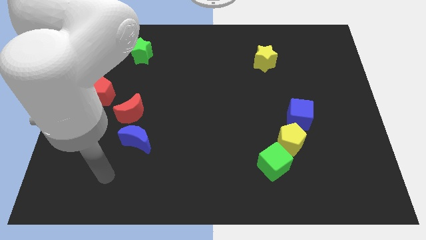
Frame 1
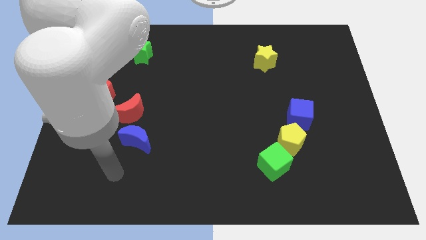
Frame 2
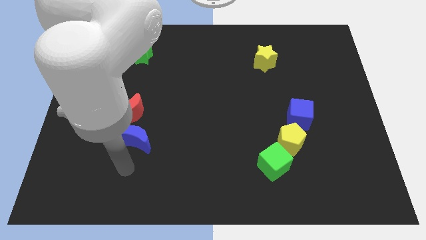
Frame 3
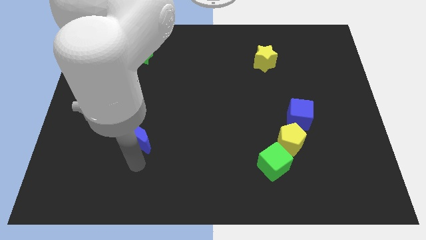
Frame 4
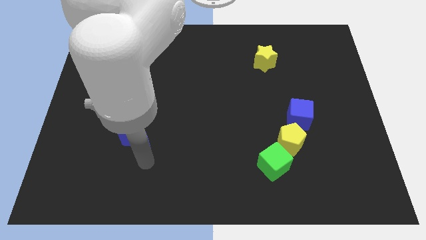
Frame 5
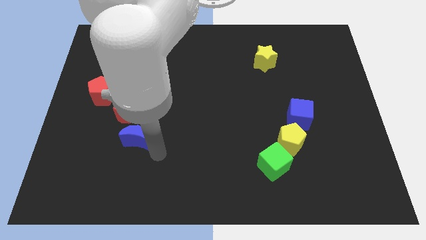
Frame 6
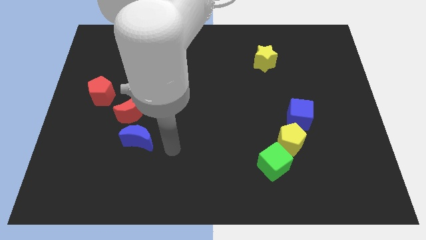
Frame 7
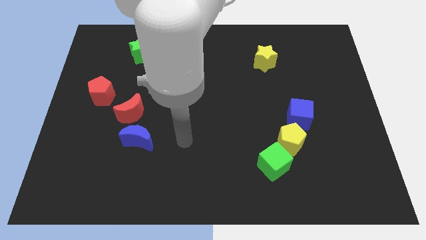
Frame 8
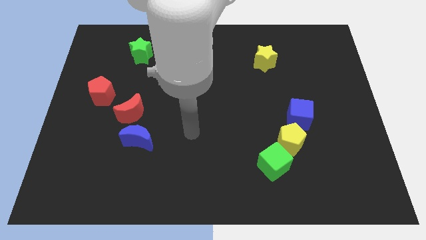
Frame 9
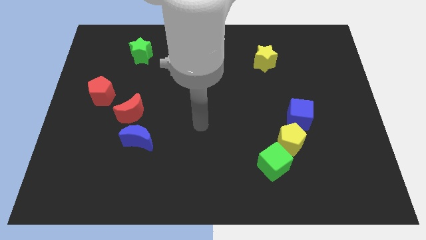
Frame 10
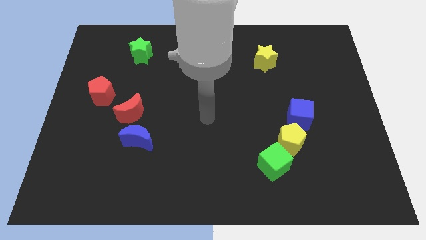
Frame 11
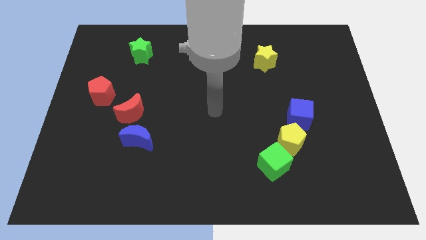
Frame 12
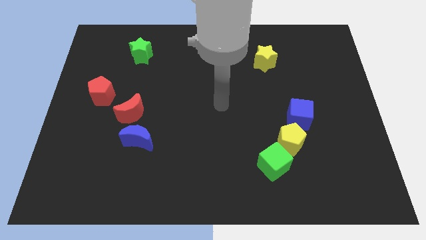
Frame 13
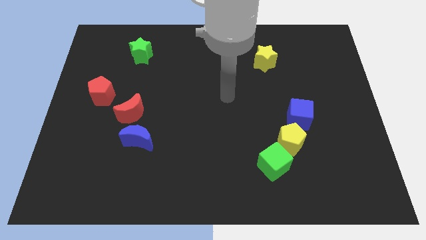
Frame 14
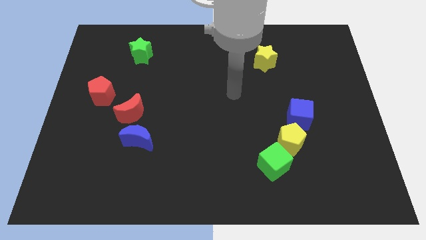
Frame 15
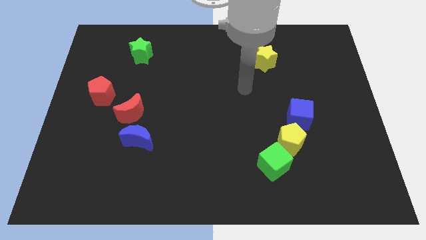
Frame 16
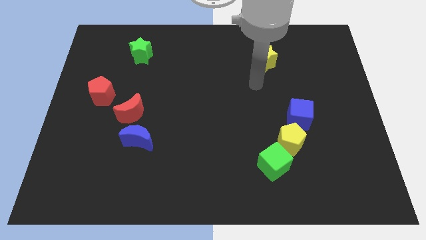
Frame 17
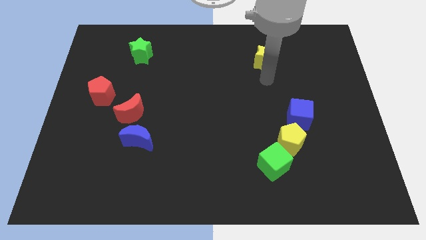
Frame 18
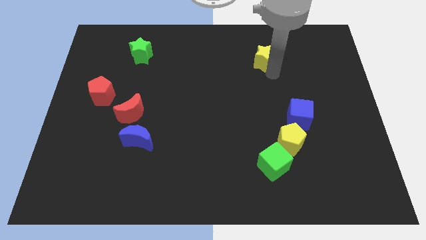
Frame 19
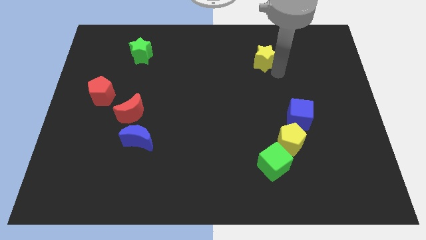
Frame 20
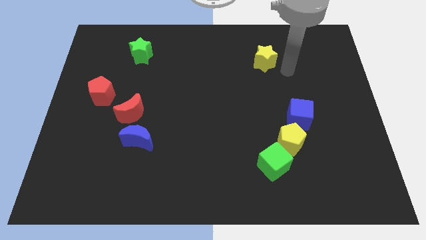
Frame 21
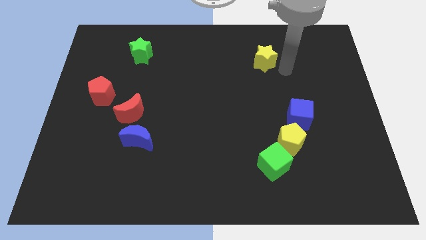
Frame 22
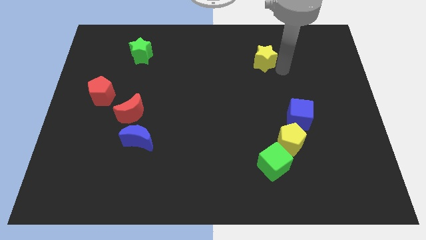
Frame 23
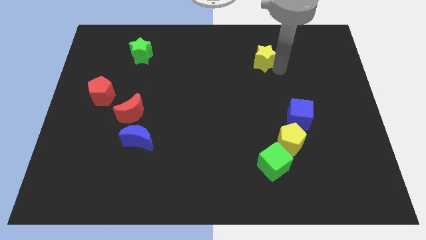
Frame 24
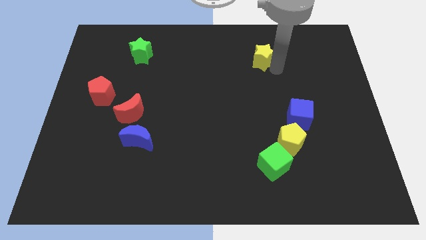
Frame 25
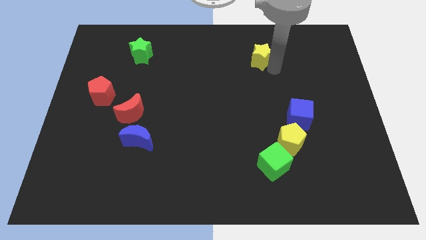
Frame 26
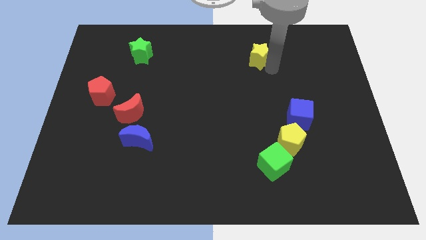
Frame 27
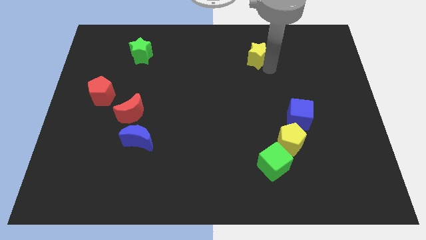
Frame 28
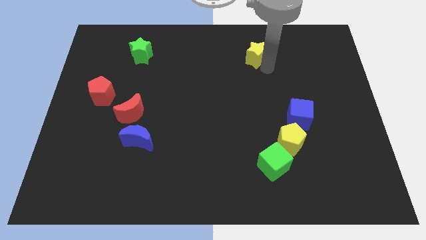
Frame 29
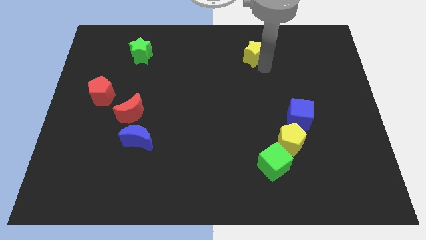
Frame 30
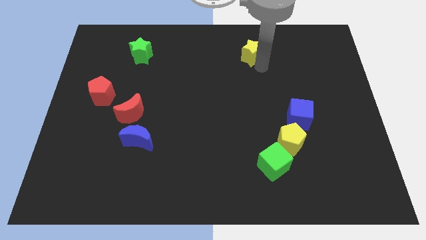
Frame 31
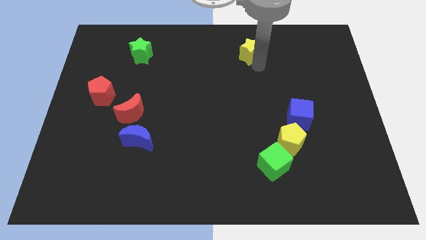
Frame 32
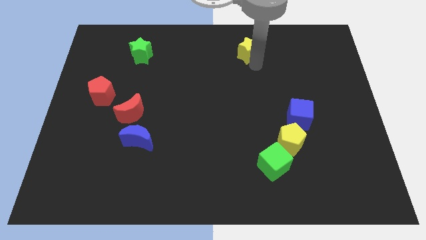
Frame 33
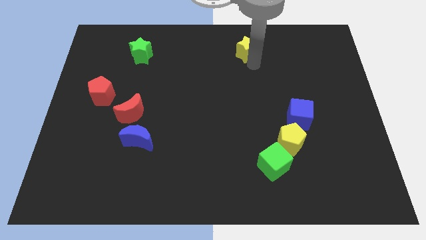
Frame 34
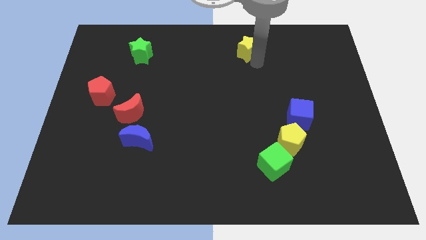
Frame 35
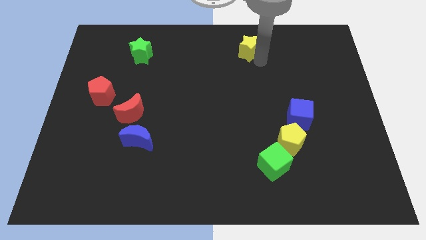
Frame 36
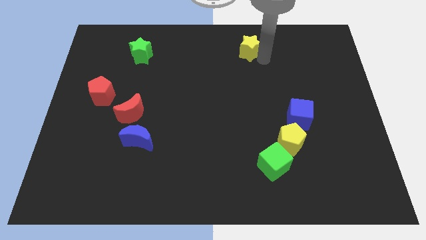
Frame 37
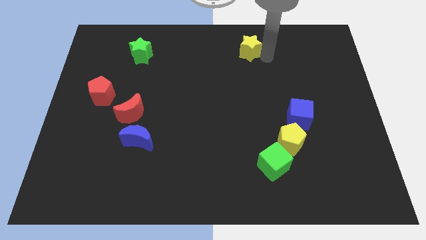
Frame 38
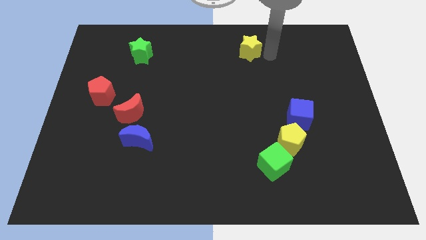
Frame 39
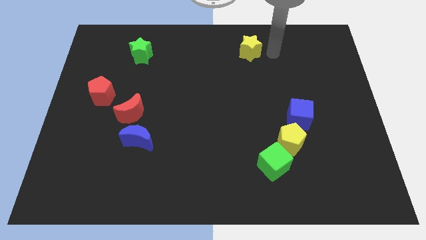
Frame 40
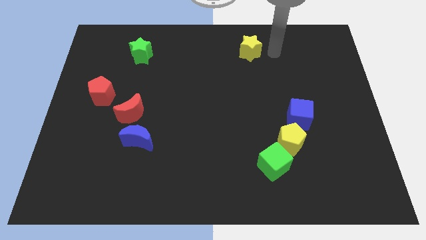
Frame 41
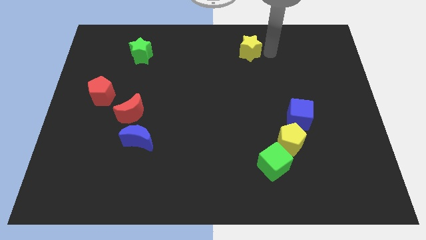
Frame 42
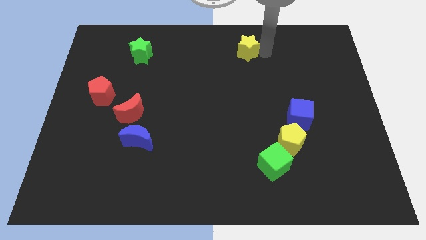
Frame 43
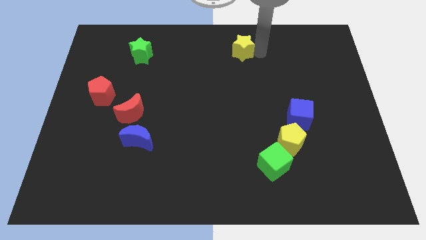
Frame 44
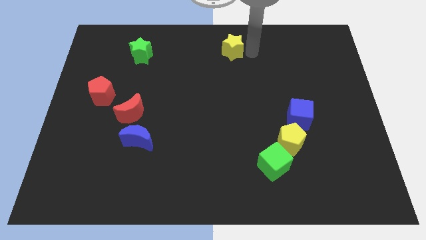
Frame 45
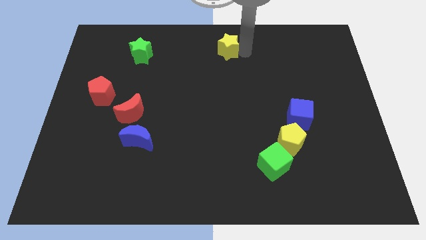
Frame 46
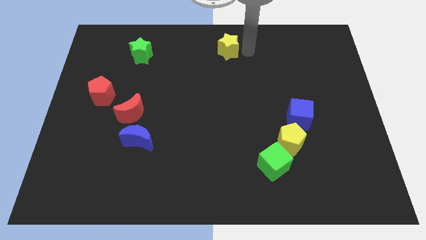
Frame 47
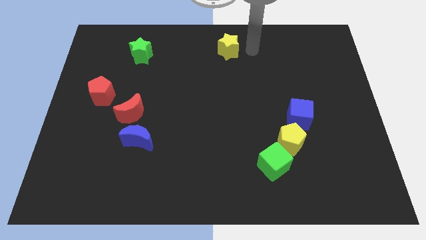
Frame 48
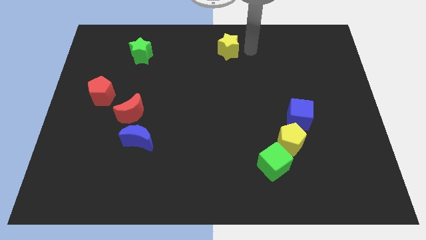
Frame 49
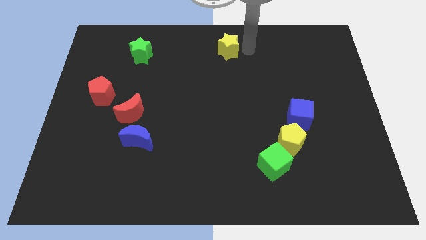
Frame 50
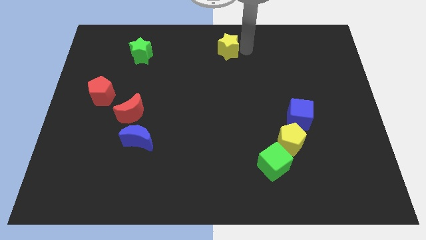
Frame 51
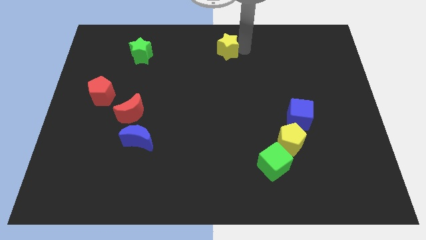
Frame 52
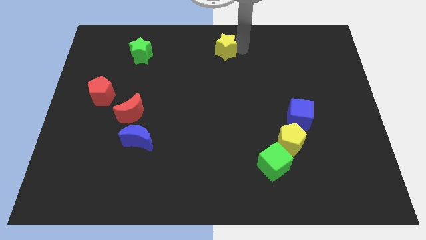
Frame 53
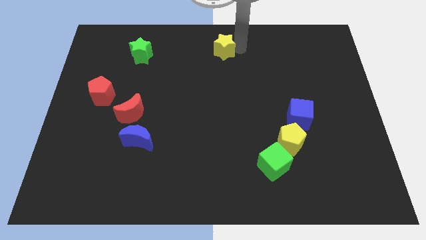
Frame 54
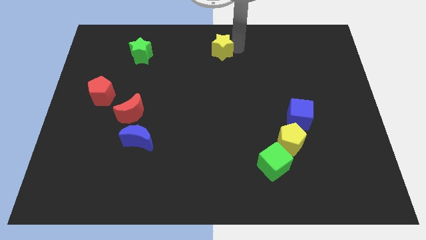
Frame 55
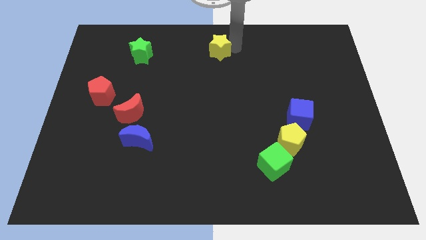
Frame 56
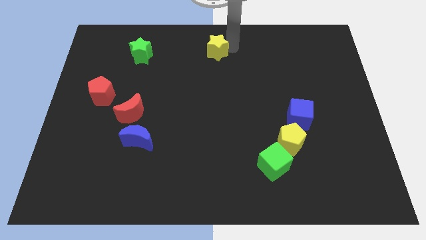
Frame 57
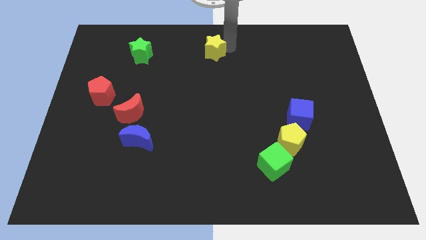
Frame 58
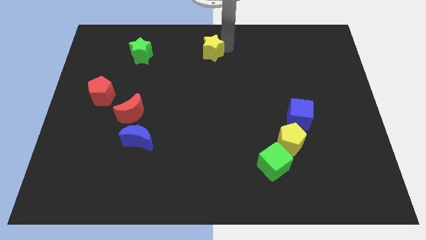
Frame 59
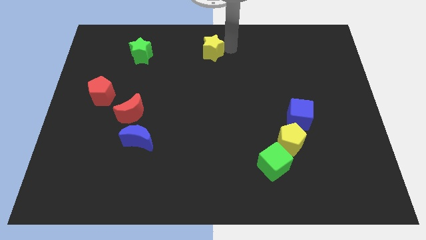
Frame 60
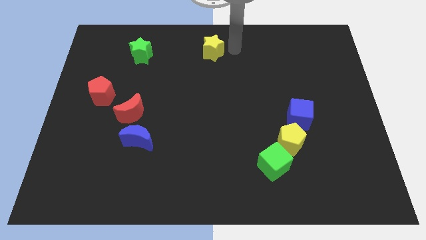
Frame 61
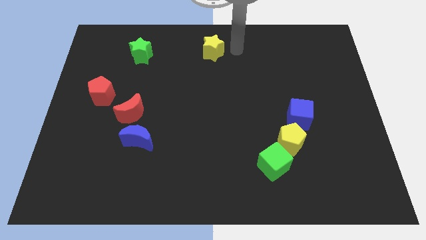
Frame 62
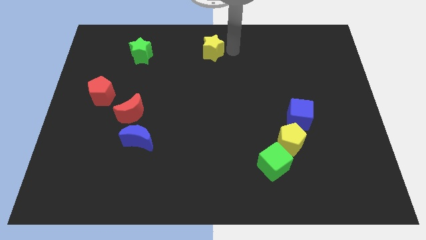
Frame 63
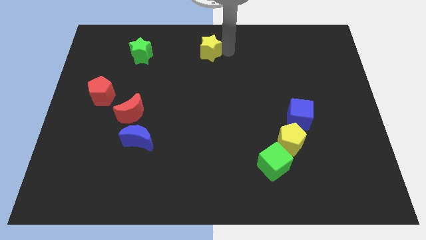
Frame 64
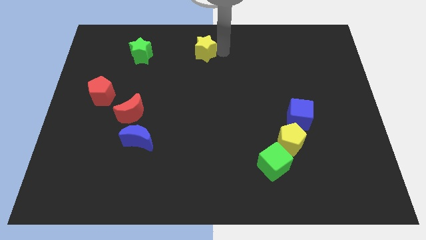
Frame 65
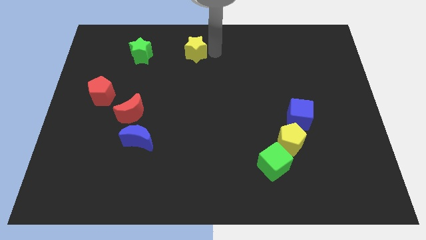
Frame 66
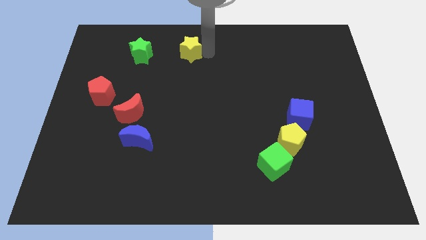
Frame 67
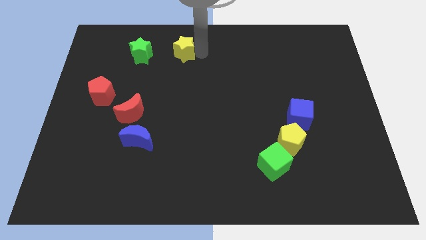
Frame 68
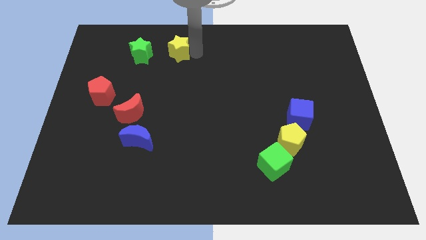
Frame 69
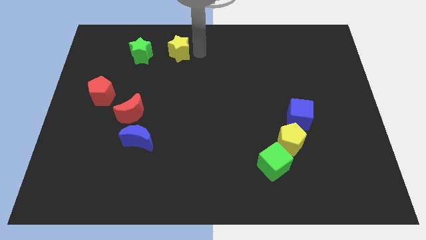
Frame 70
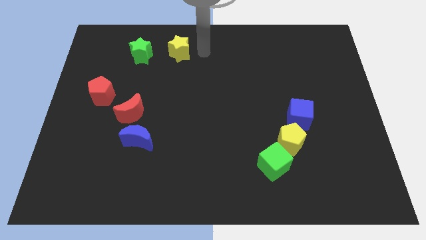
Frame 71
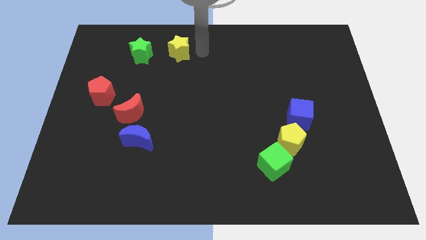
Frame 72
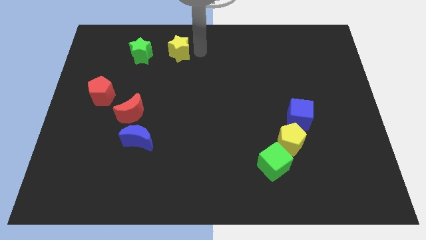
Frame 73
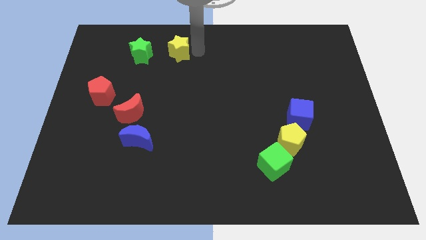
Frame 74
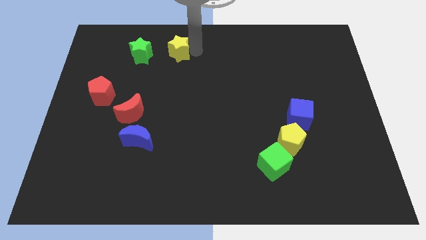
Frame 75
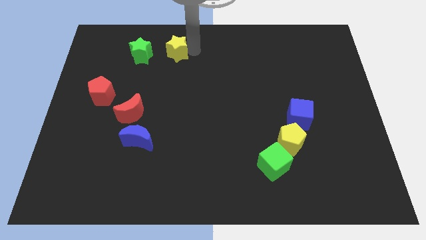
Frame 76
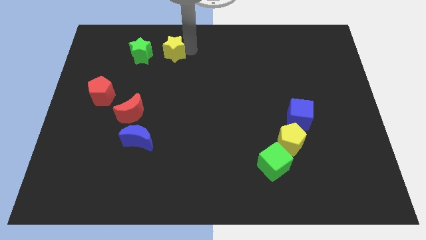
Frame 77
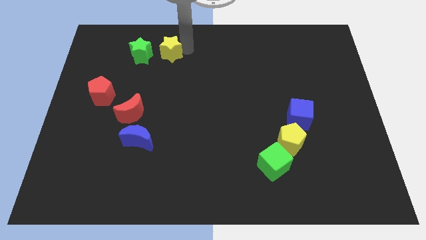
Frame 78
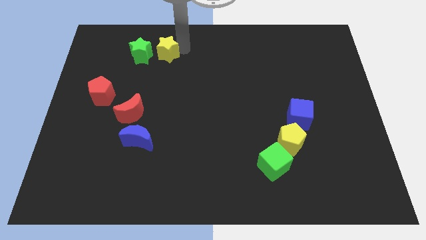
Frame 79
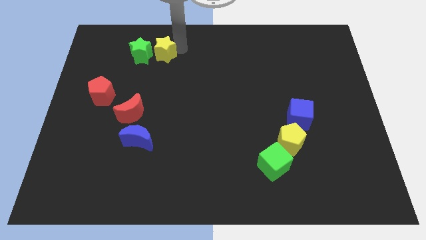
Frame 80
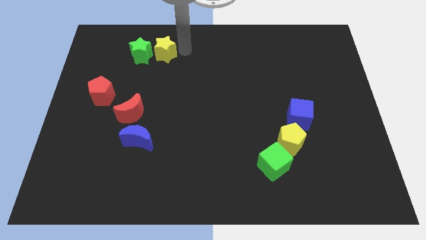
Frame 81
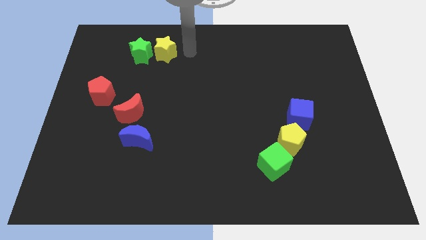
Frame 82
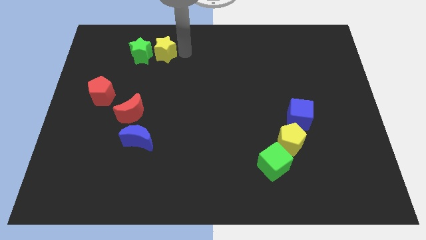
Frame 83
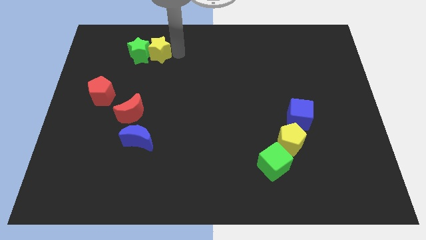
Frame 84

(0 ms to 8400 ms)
push the yellow star close to the green star
